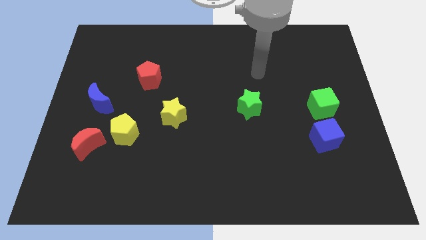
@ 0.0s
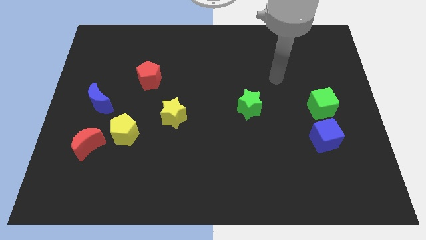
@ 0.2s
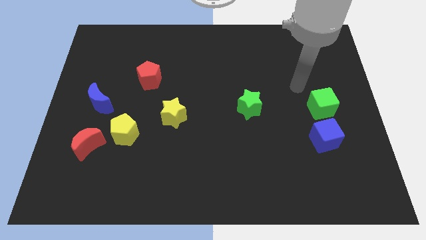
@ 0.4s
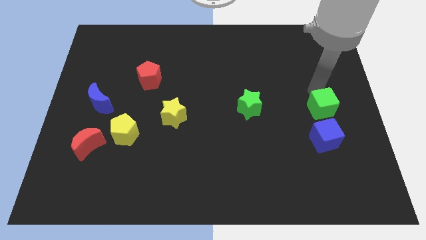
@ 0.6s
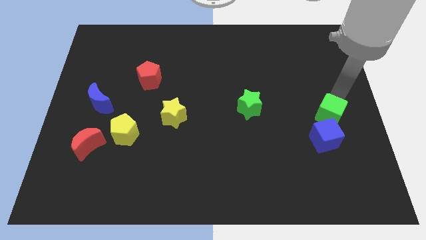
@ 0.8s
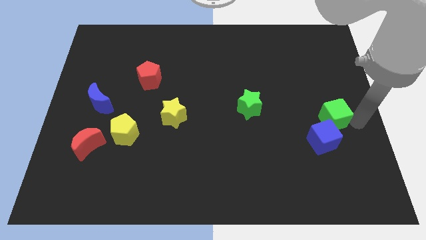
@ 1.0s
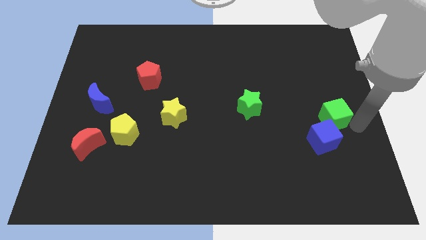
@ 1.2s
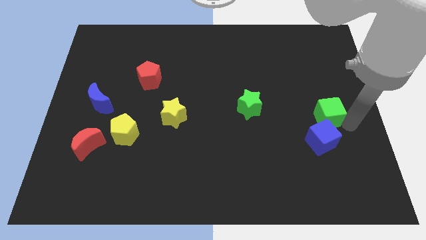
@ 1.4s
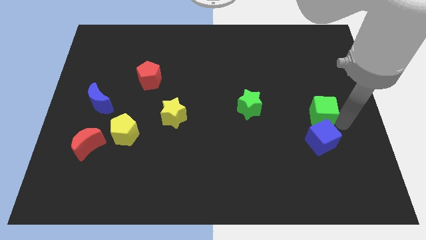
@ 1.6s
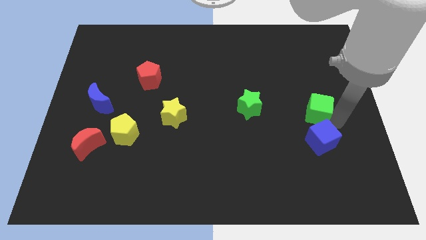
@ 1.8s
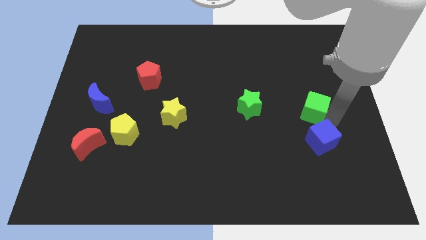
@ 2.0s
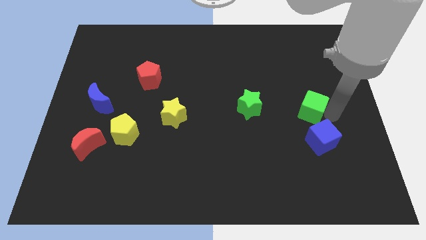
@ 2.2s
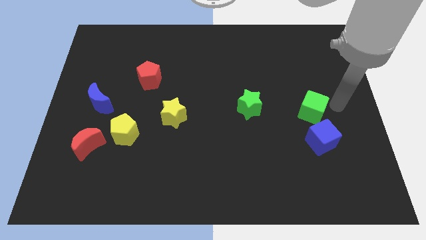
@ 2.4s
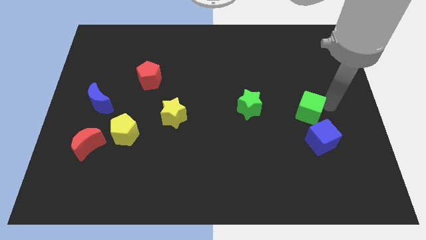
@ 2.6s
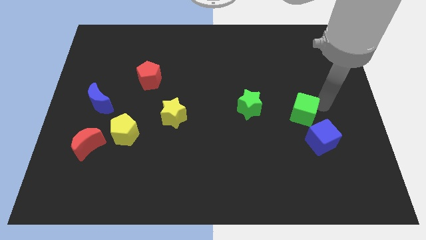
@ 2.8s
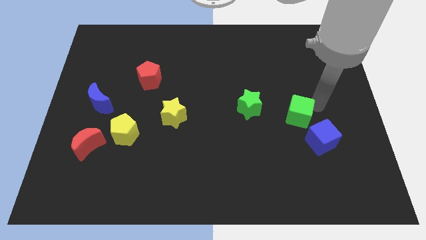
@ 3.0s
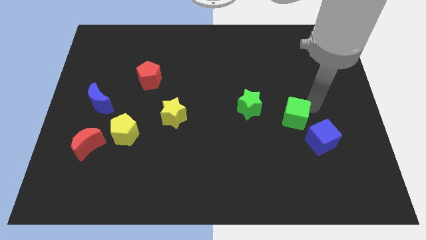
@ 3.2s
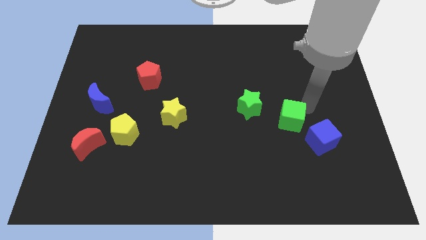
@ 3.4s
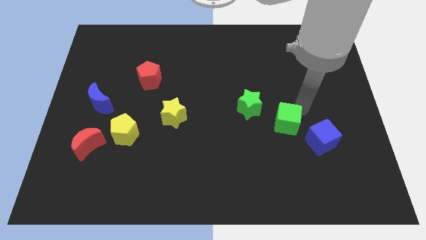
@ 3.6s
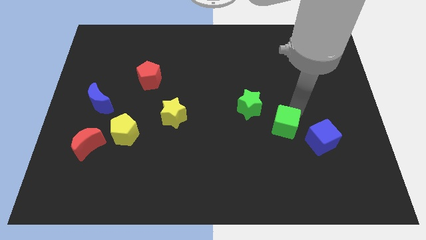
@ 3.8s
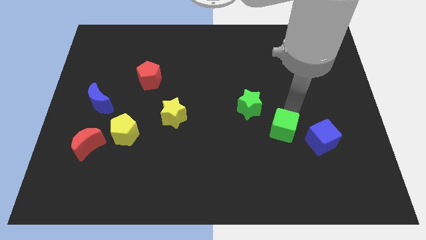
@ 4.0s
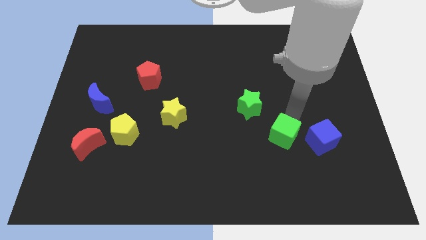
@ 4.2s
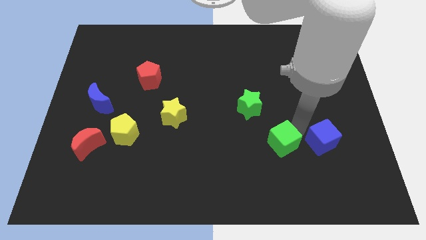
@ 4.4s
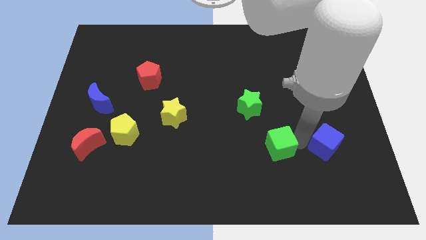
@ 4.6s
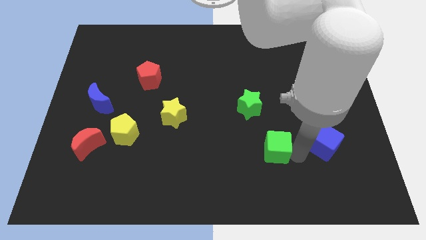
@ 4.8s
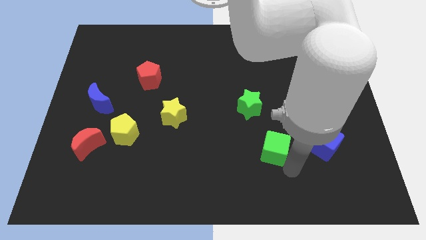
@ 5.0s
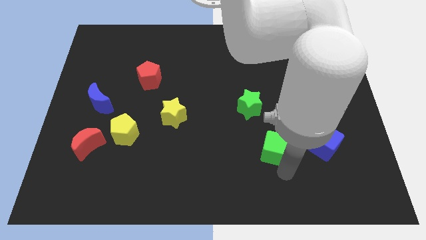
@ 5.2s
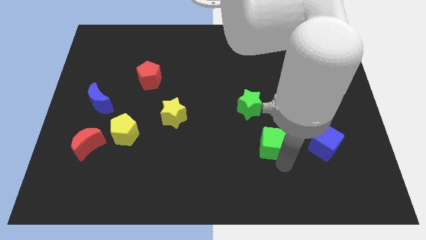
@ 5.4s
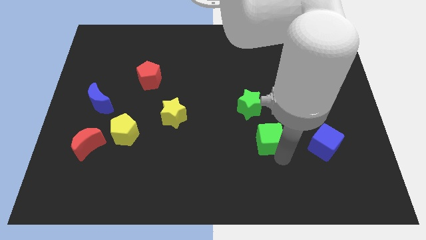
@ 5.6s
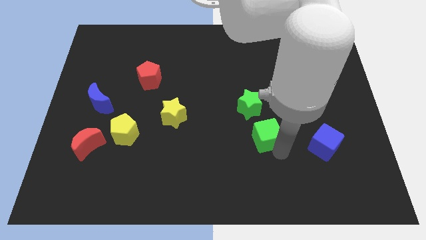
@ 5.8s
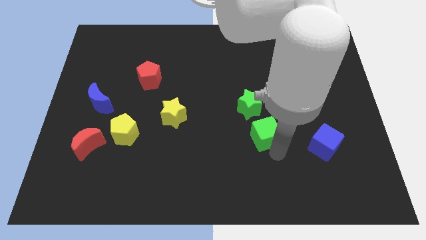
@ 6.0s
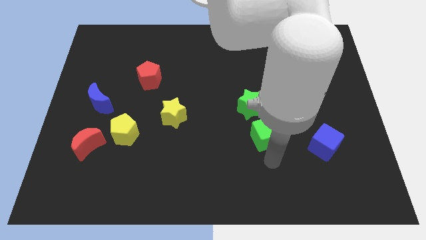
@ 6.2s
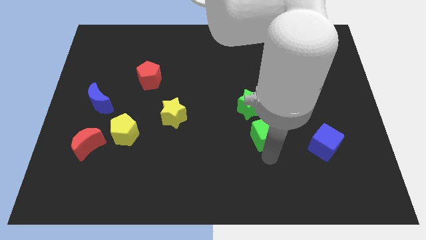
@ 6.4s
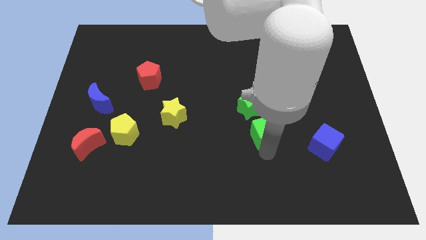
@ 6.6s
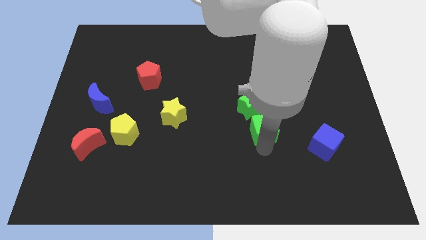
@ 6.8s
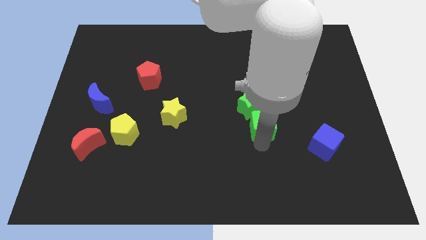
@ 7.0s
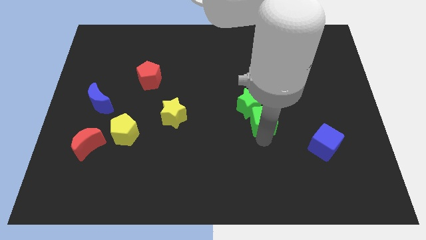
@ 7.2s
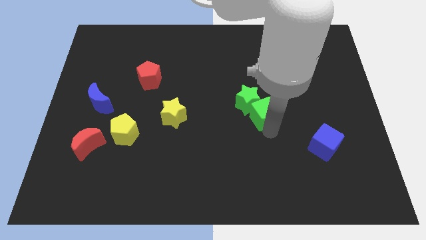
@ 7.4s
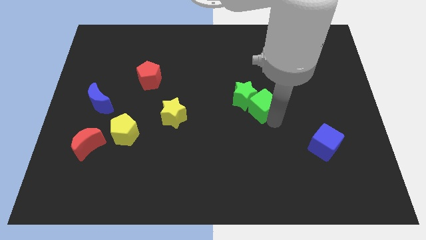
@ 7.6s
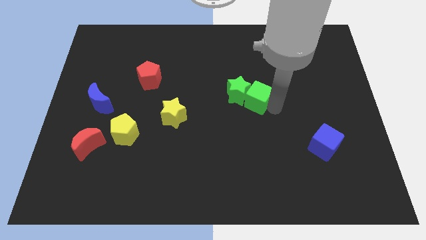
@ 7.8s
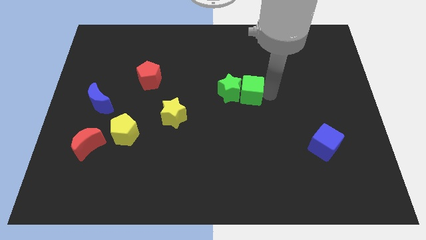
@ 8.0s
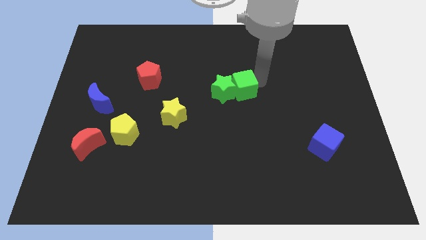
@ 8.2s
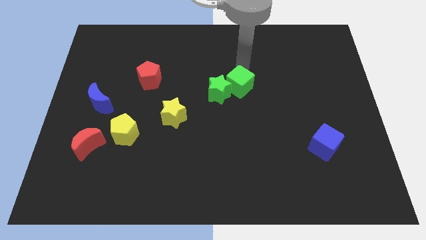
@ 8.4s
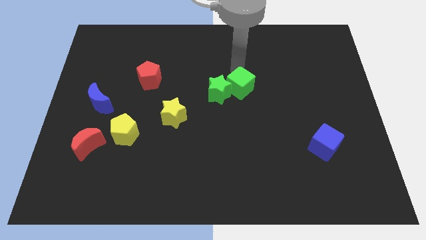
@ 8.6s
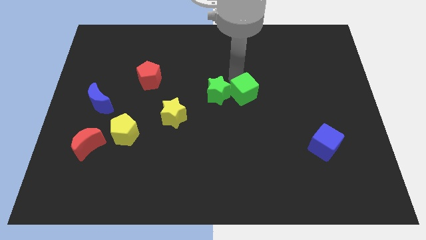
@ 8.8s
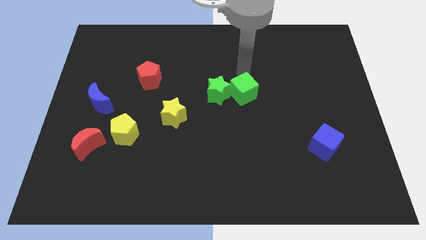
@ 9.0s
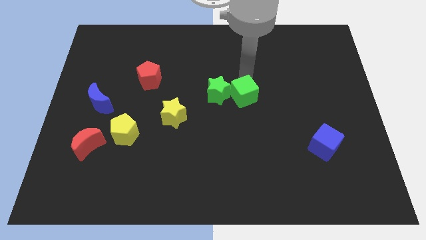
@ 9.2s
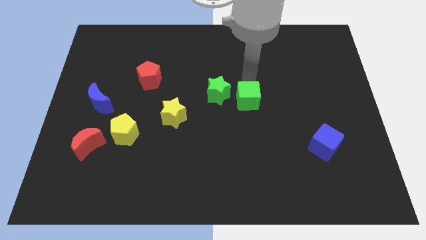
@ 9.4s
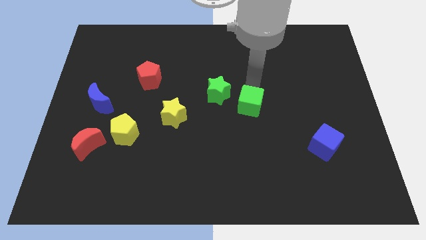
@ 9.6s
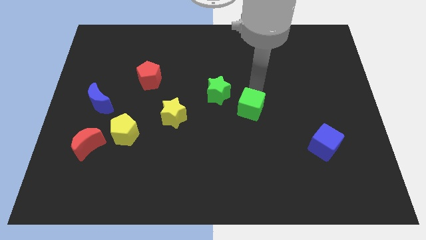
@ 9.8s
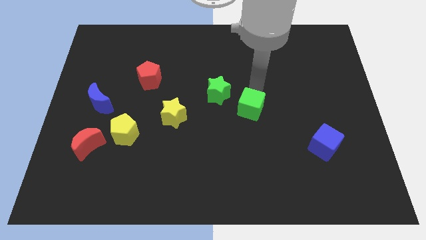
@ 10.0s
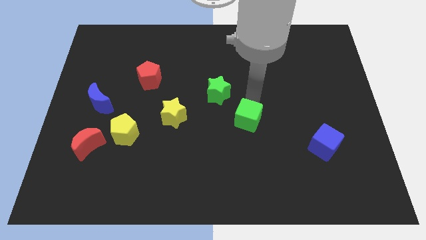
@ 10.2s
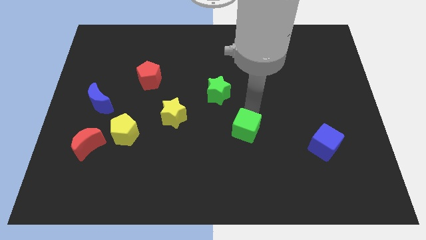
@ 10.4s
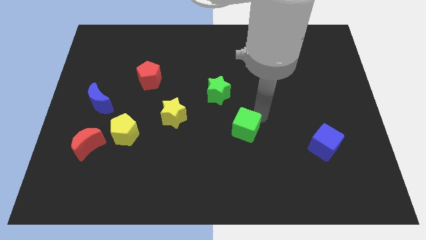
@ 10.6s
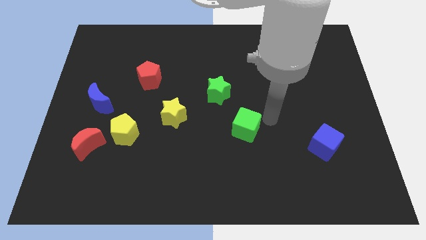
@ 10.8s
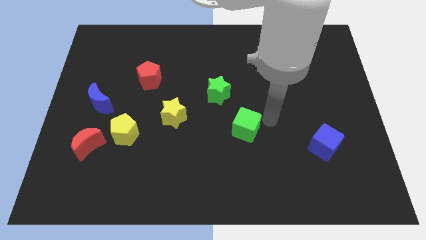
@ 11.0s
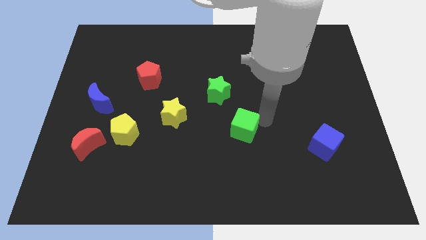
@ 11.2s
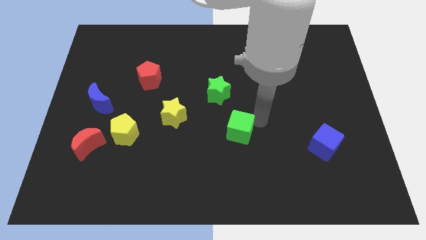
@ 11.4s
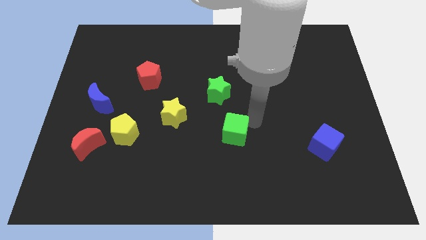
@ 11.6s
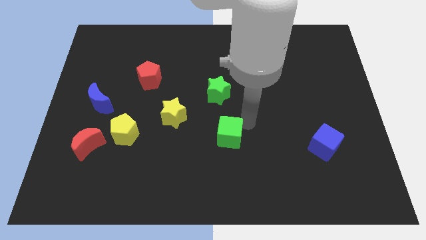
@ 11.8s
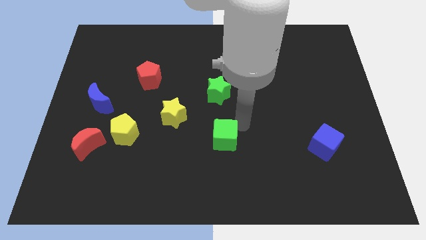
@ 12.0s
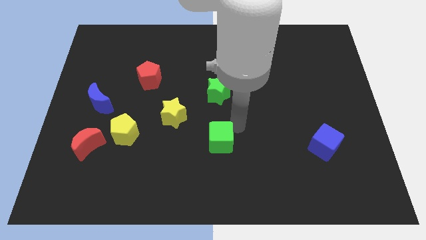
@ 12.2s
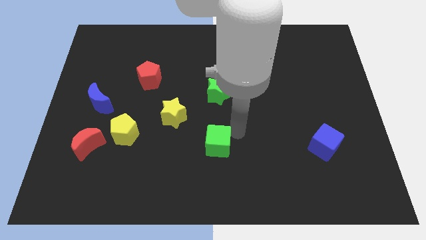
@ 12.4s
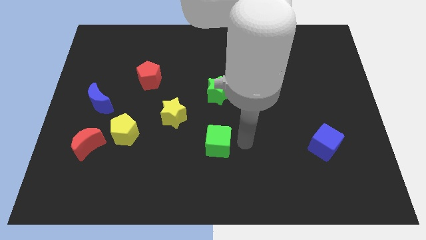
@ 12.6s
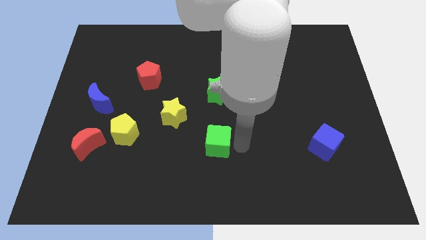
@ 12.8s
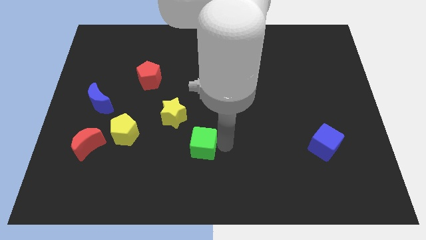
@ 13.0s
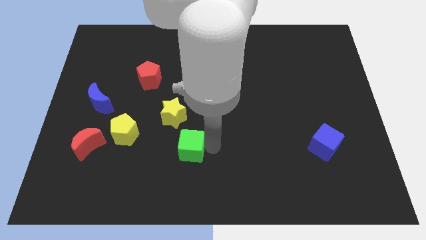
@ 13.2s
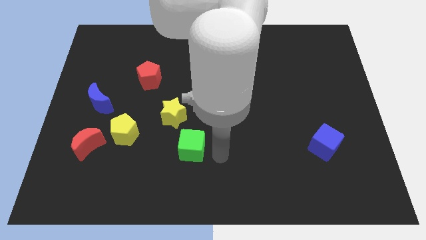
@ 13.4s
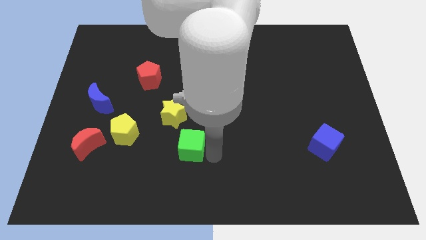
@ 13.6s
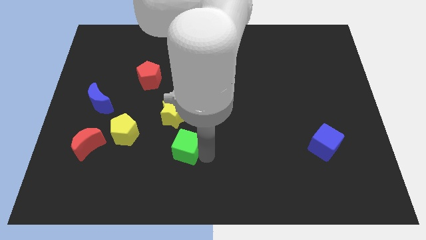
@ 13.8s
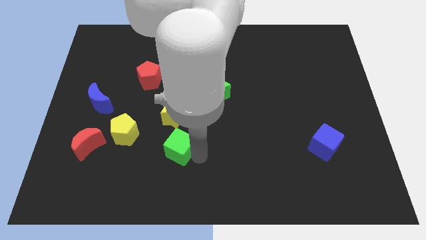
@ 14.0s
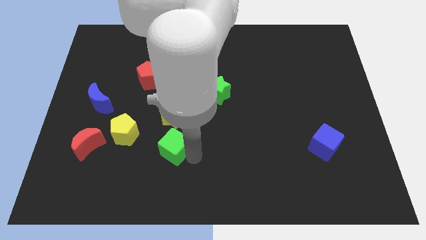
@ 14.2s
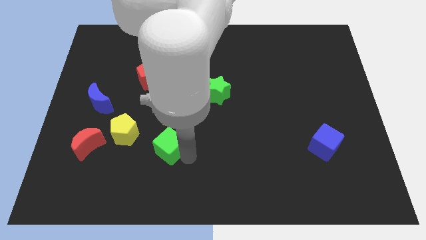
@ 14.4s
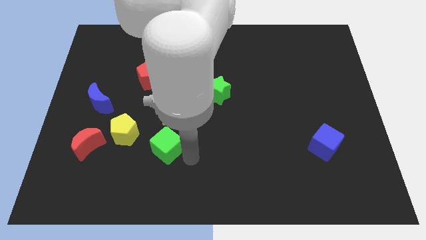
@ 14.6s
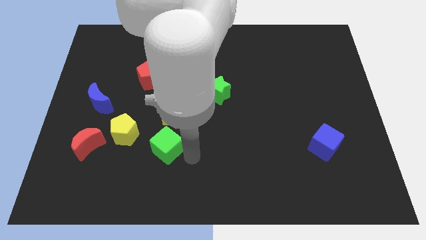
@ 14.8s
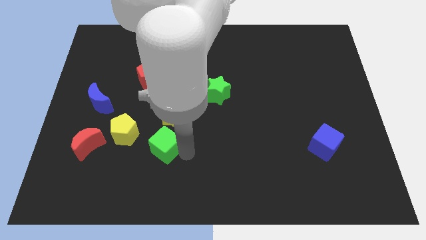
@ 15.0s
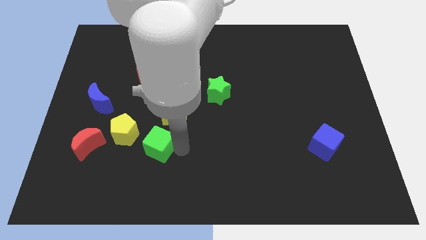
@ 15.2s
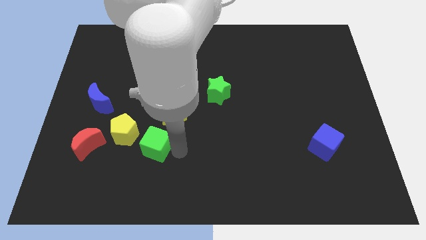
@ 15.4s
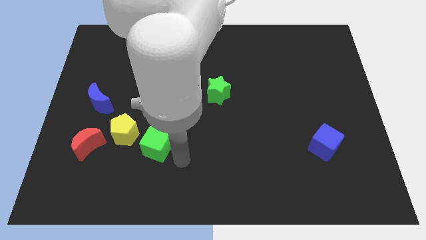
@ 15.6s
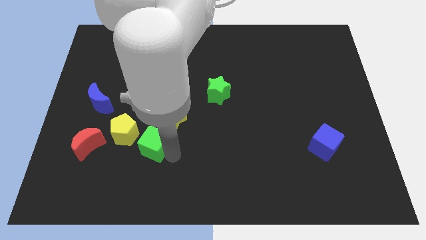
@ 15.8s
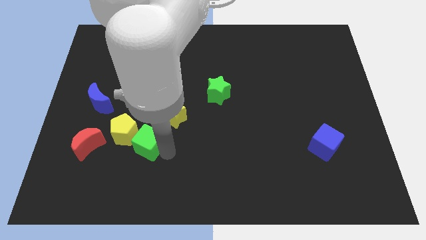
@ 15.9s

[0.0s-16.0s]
move the green cube close to the yellow pentagon
